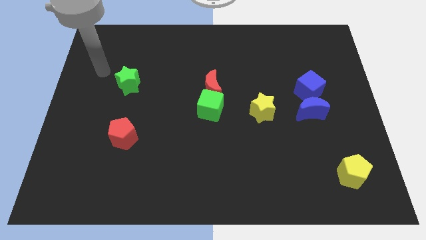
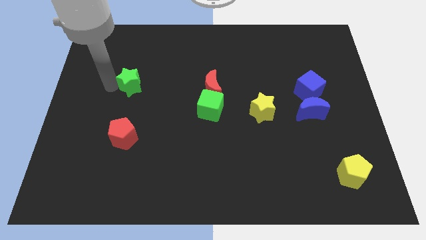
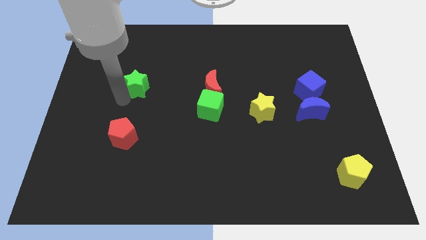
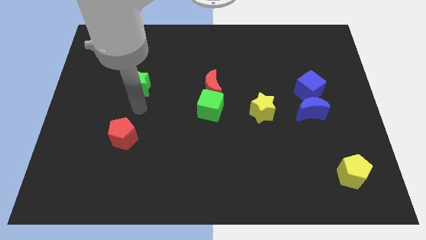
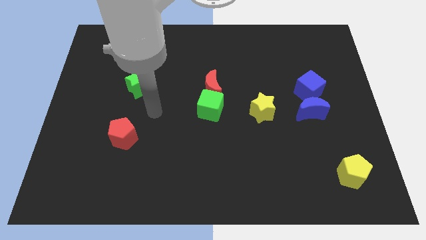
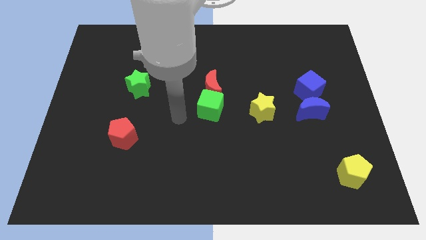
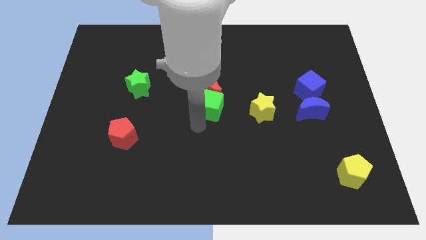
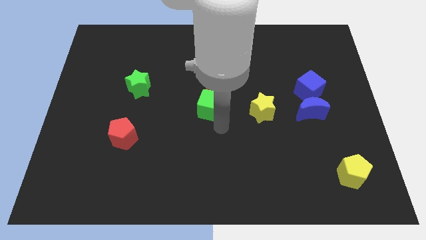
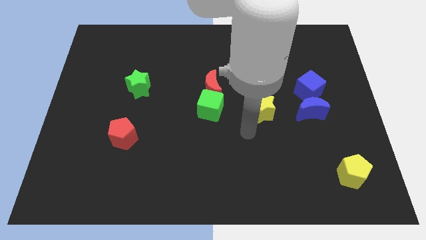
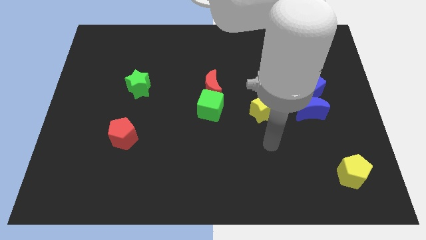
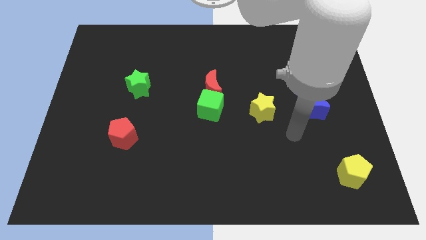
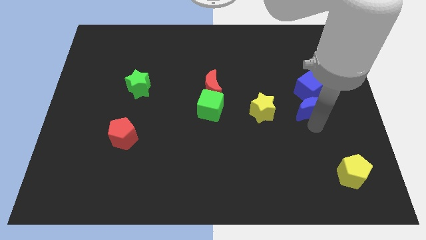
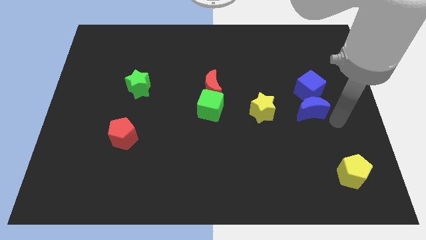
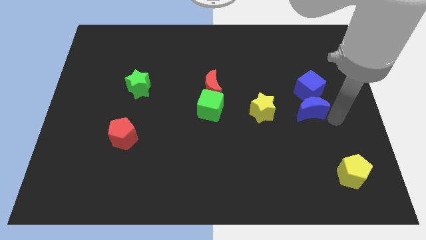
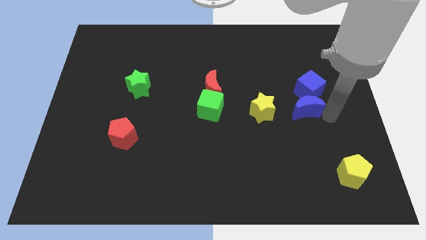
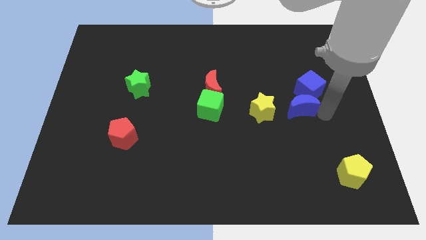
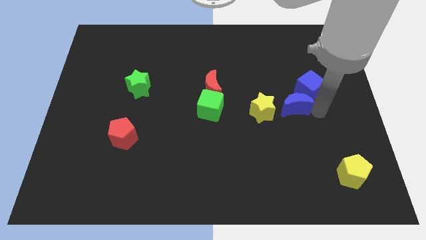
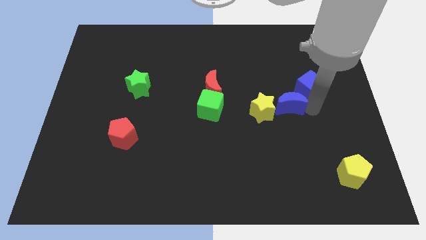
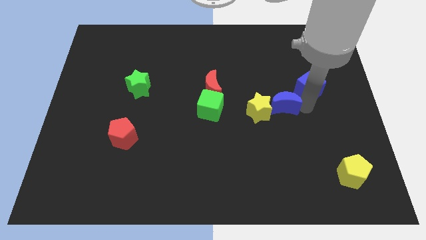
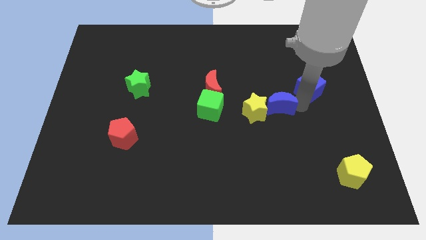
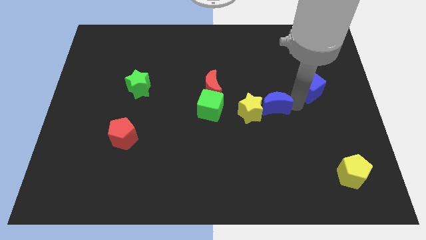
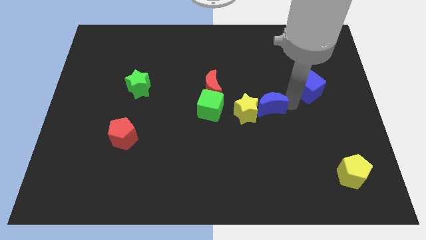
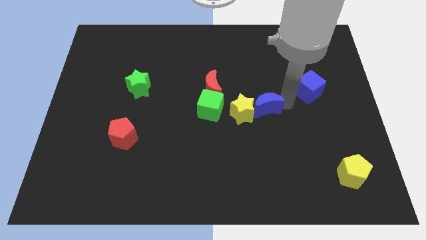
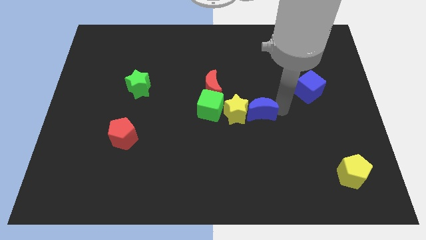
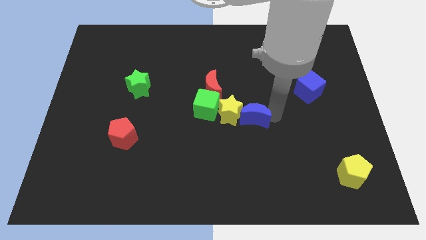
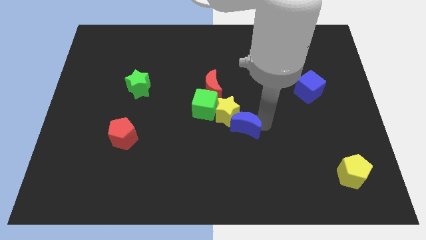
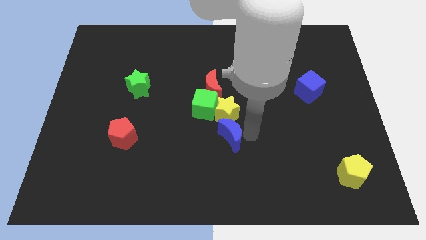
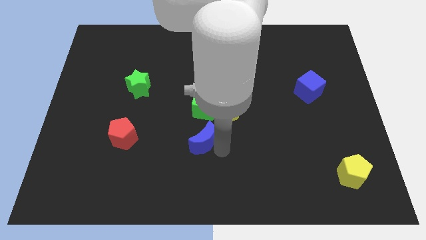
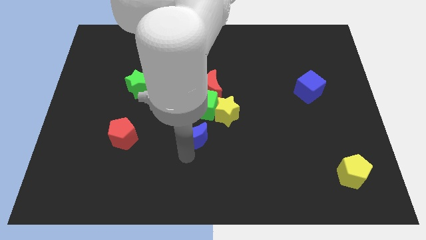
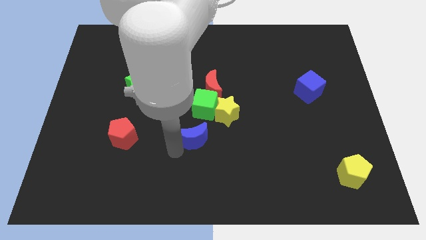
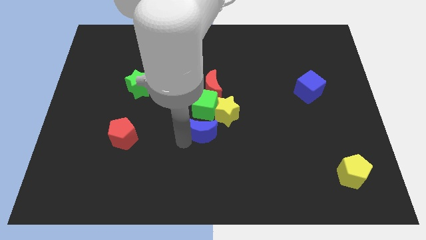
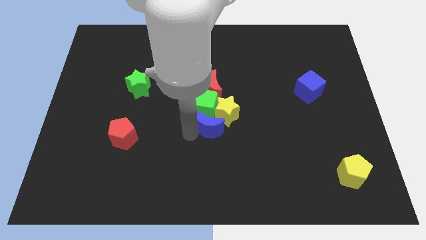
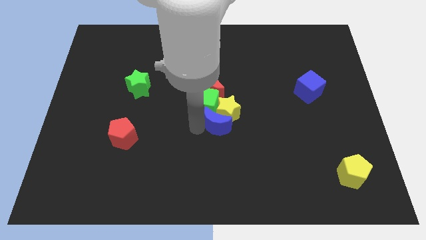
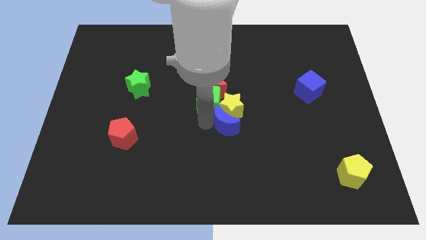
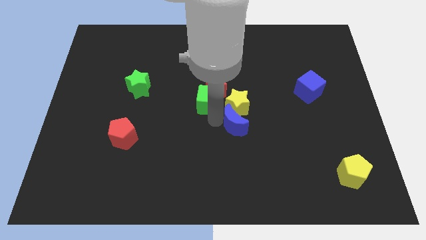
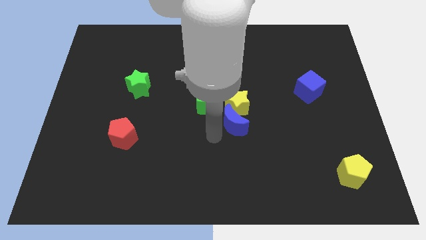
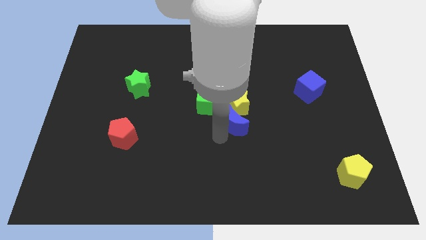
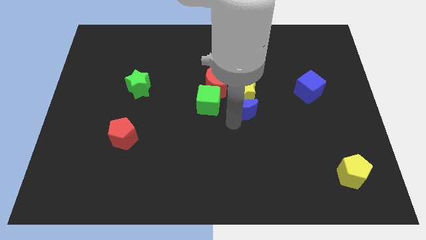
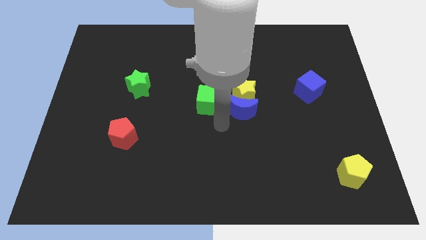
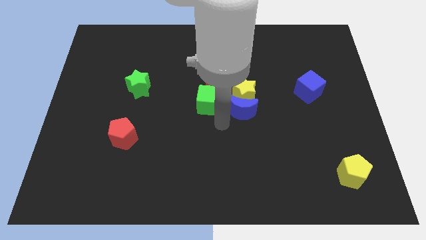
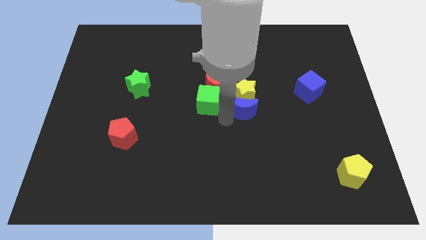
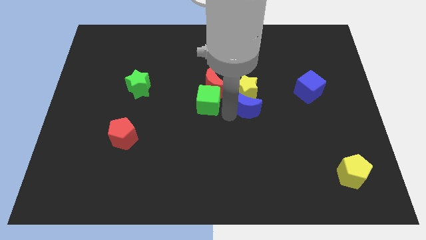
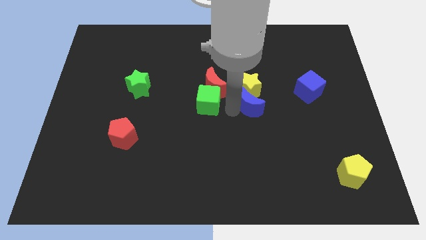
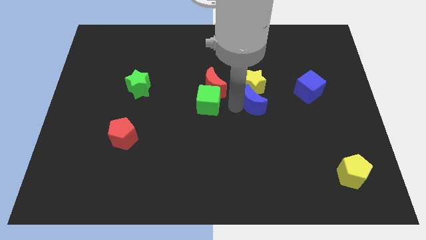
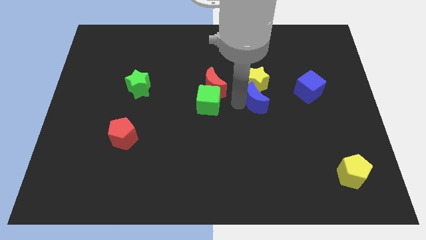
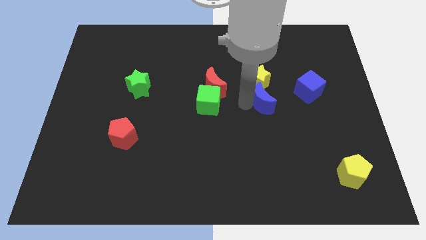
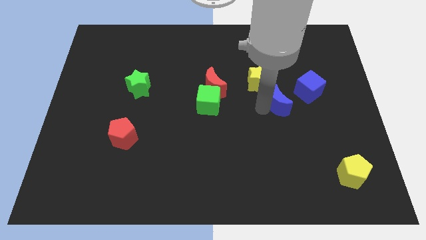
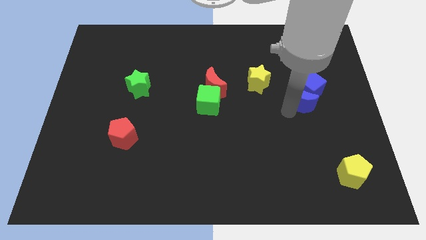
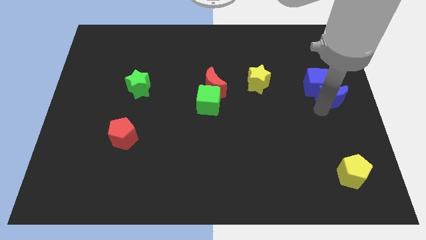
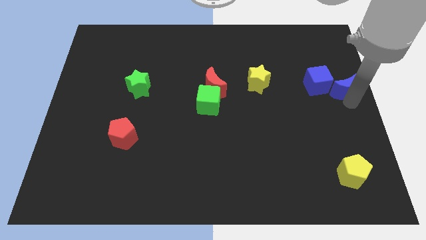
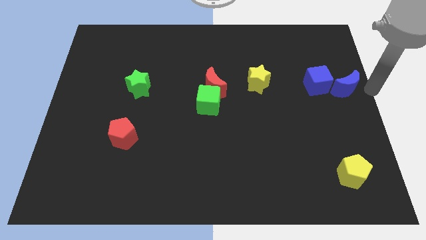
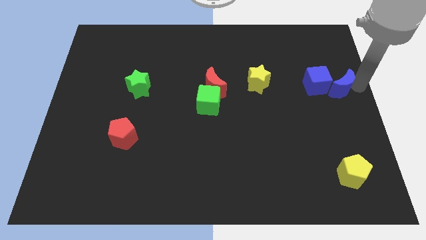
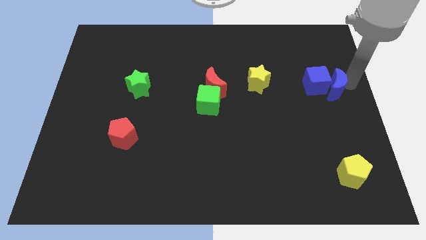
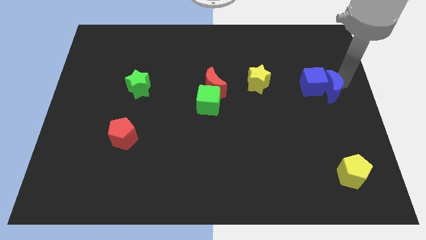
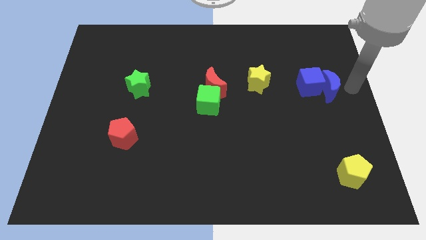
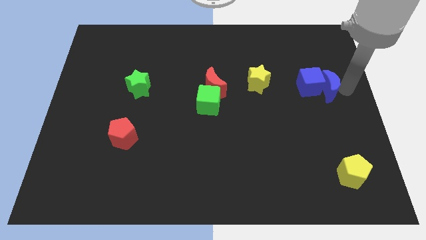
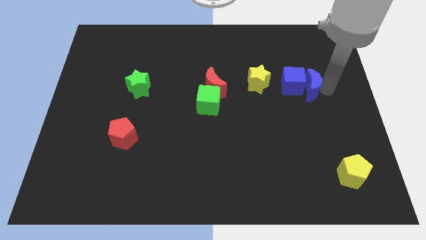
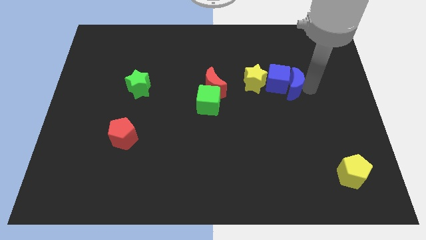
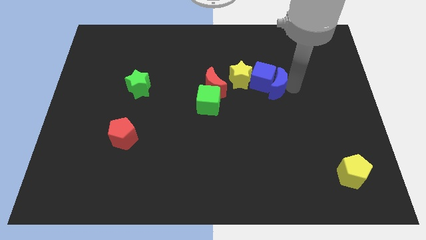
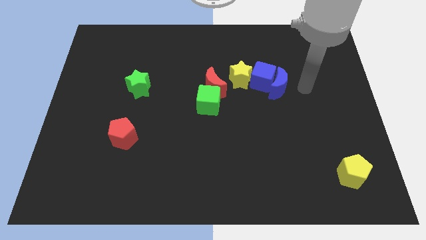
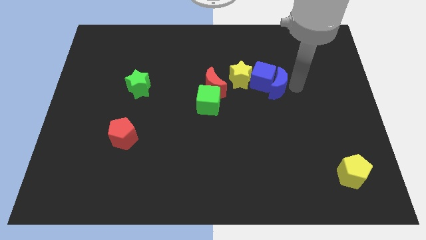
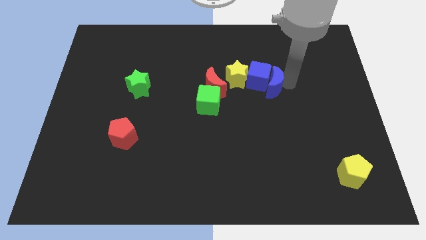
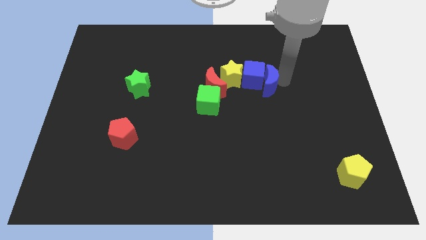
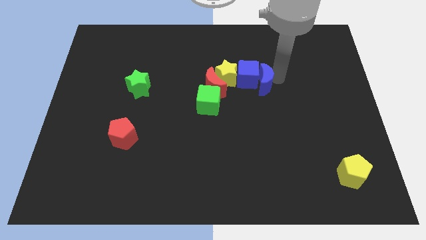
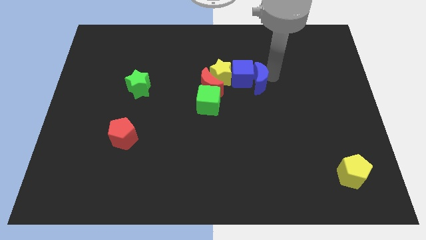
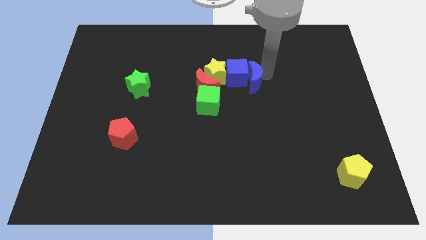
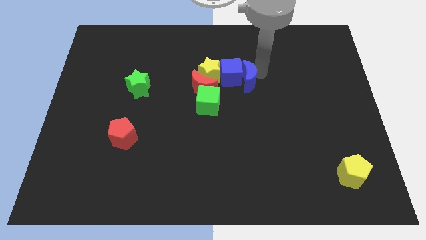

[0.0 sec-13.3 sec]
slide the blue moon to the top right side of the green cube

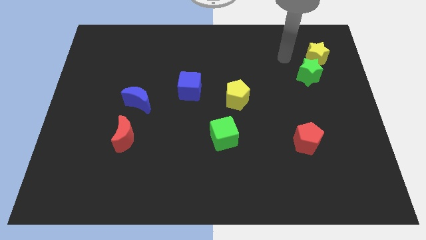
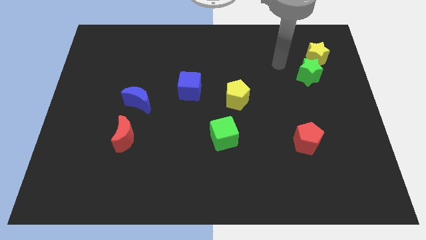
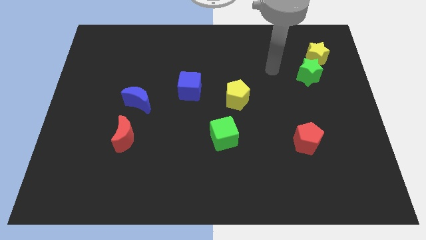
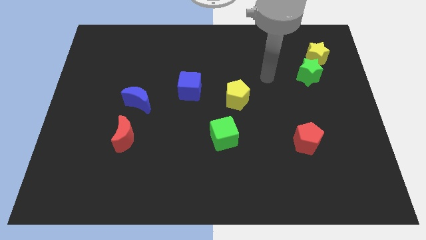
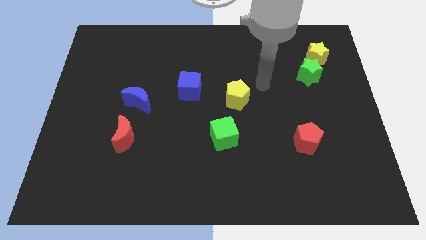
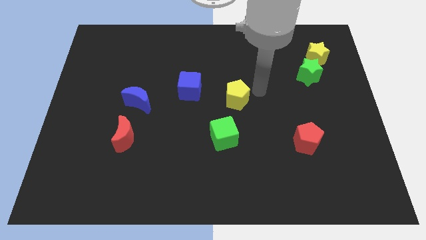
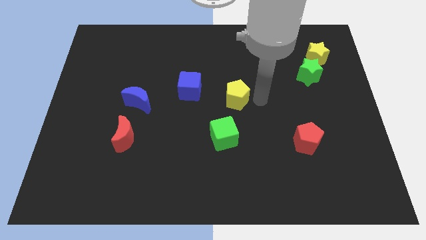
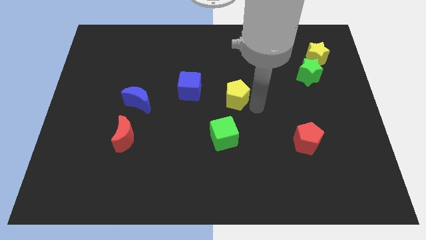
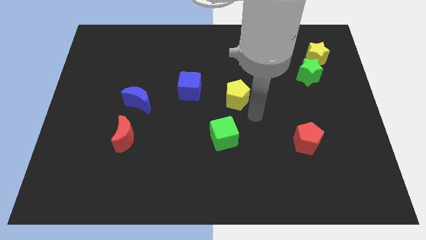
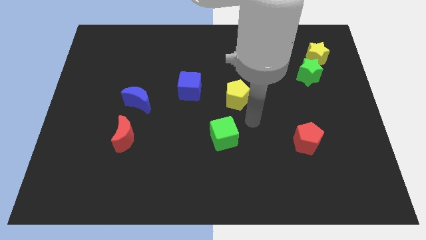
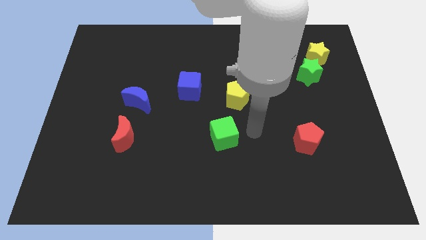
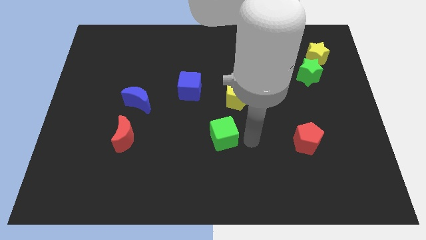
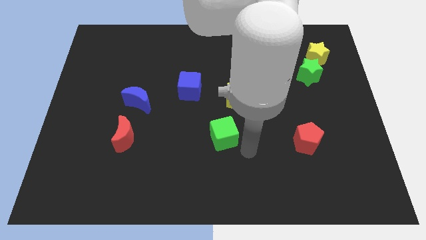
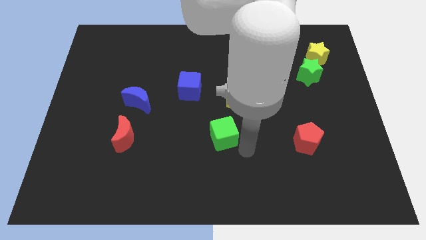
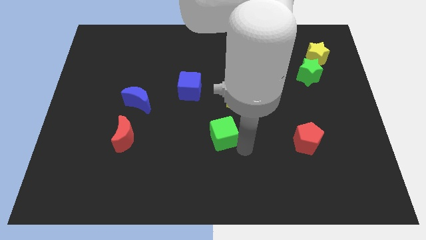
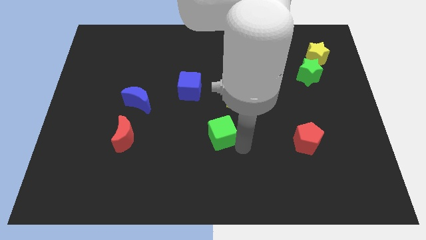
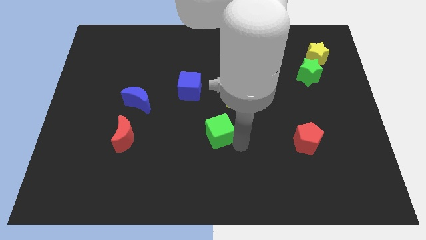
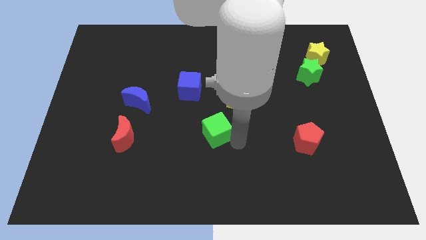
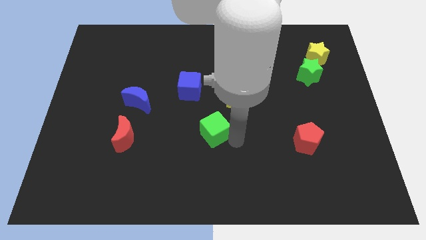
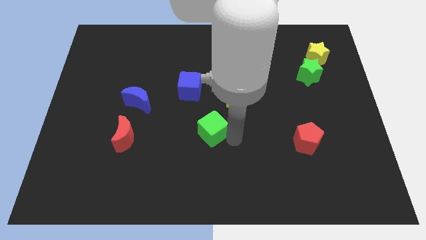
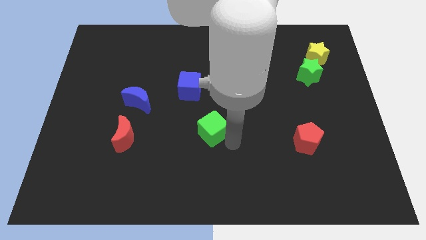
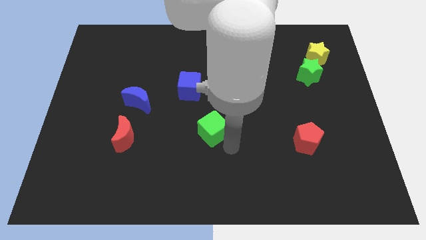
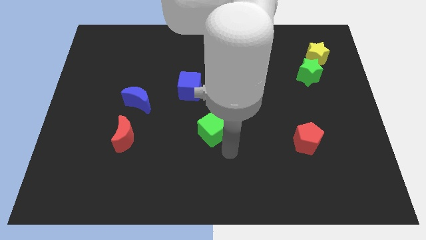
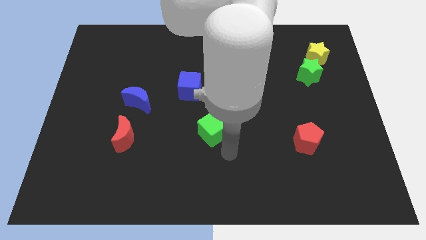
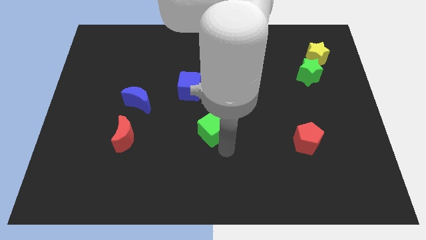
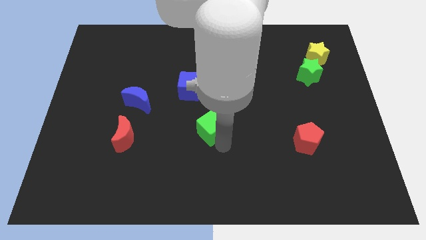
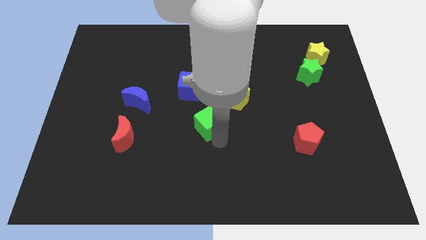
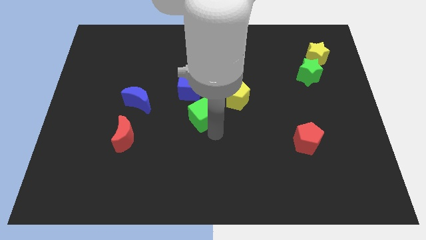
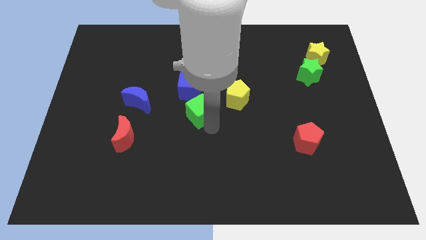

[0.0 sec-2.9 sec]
put the green cube just right of the blue moon
